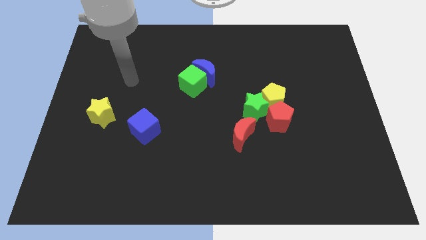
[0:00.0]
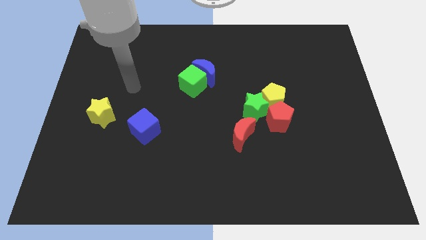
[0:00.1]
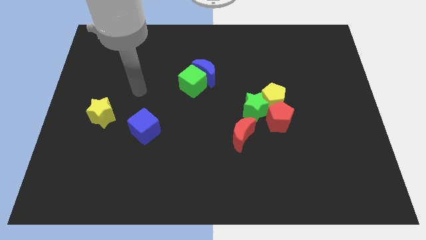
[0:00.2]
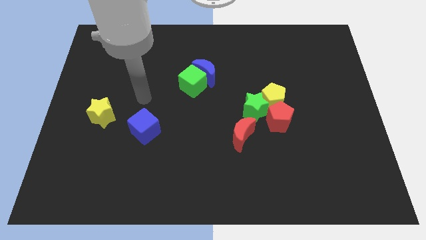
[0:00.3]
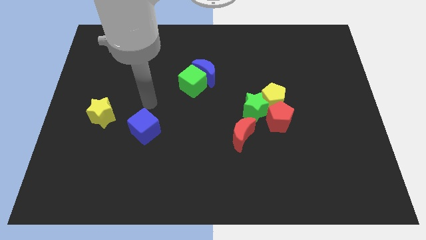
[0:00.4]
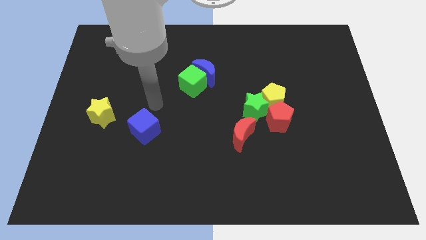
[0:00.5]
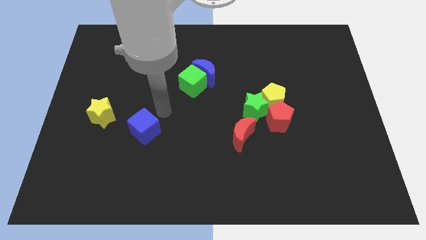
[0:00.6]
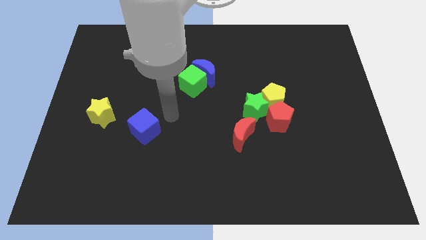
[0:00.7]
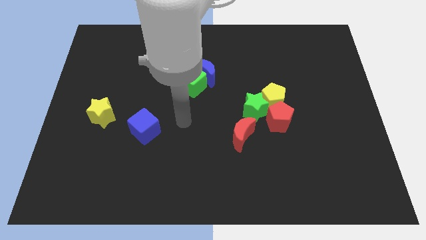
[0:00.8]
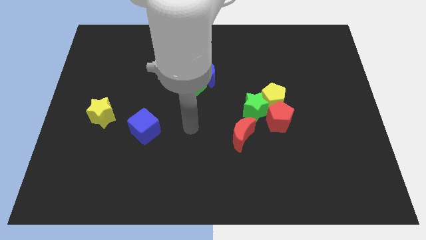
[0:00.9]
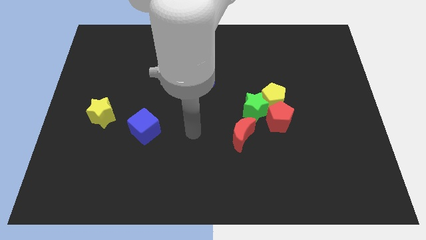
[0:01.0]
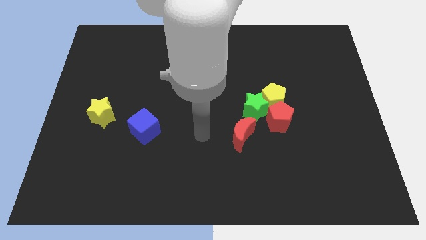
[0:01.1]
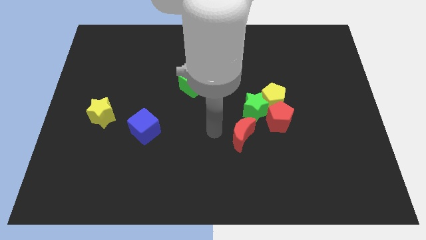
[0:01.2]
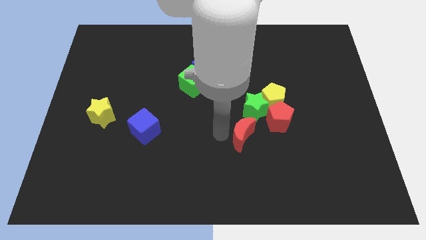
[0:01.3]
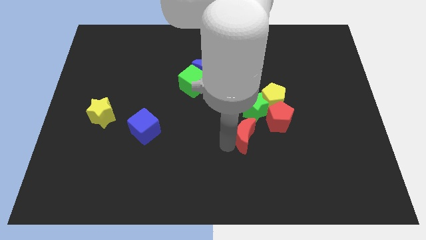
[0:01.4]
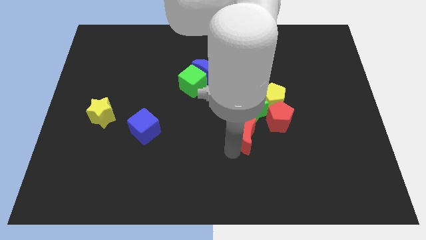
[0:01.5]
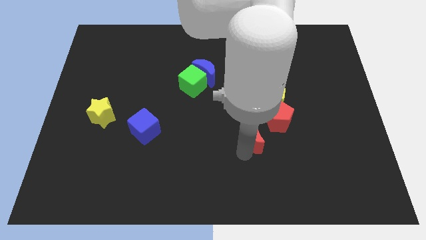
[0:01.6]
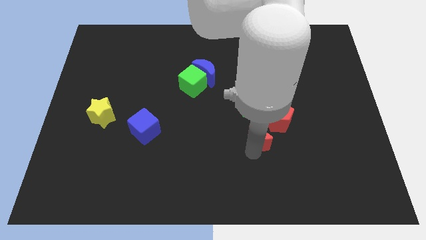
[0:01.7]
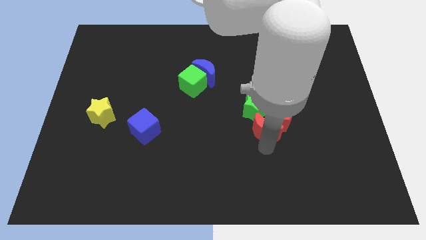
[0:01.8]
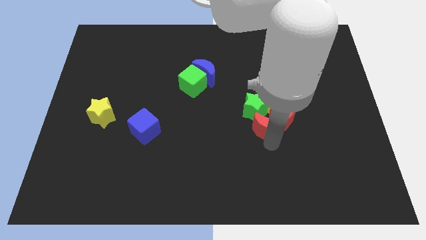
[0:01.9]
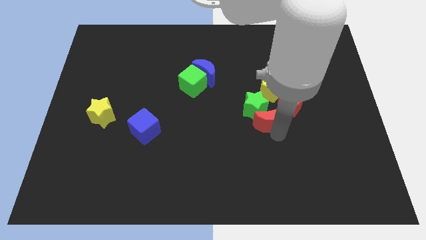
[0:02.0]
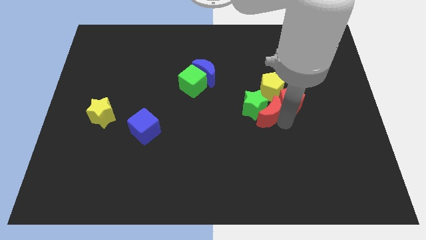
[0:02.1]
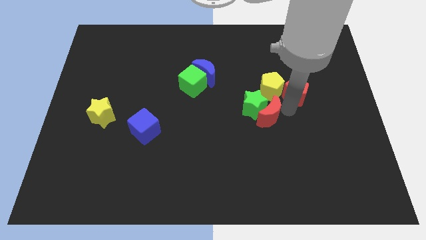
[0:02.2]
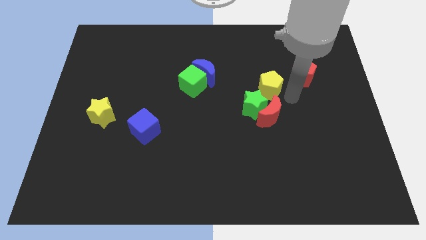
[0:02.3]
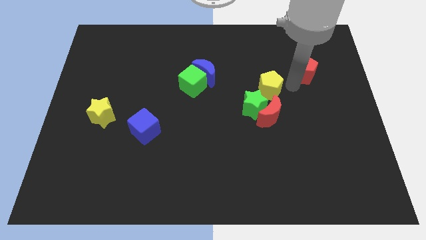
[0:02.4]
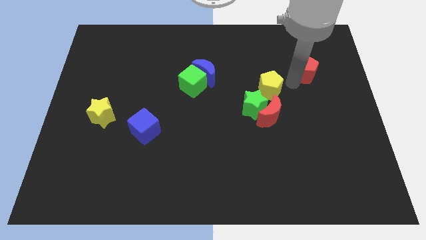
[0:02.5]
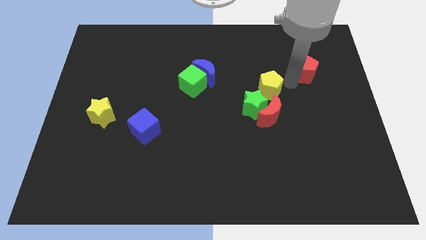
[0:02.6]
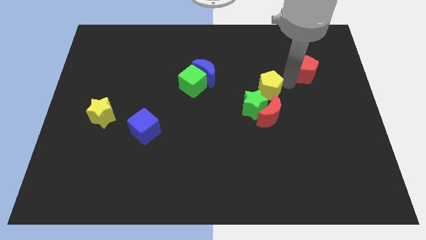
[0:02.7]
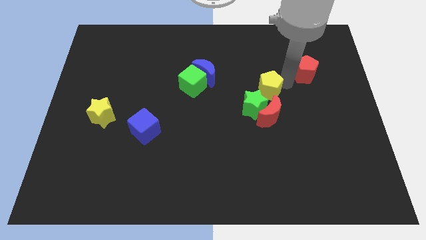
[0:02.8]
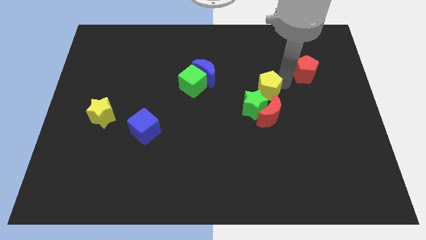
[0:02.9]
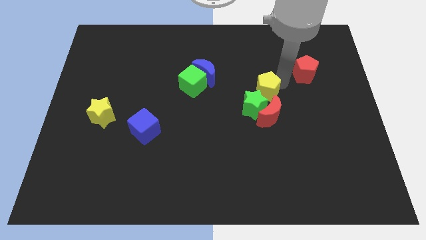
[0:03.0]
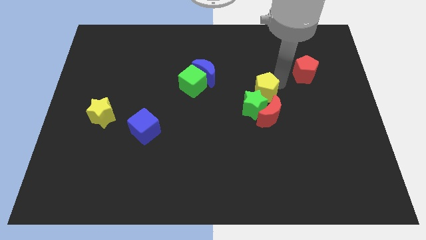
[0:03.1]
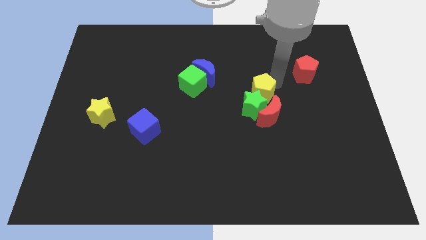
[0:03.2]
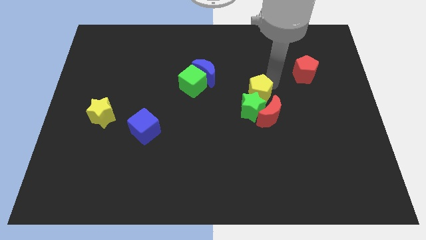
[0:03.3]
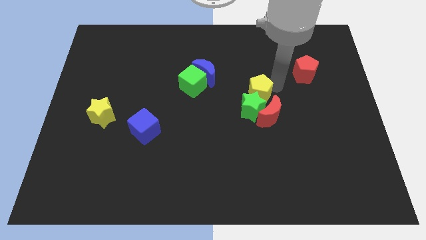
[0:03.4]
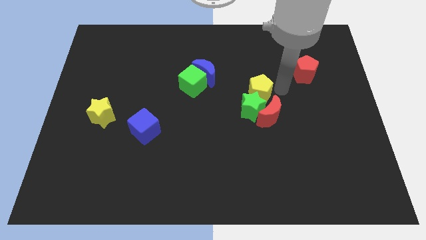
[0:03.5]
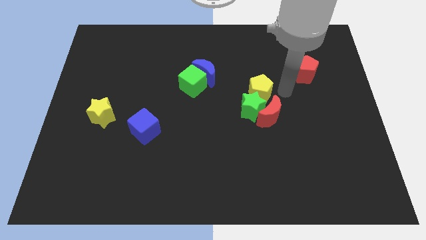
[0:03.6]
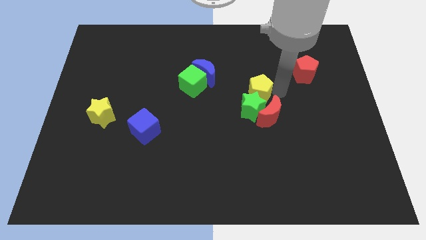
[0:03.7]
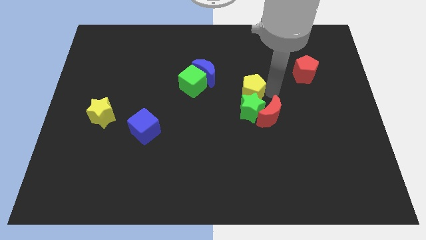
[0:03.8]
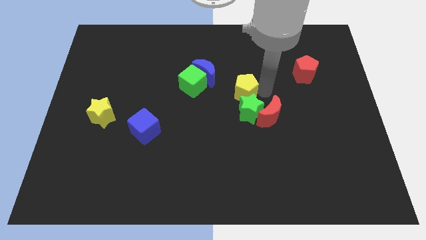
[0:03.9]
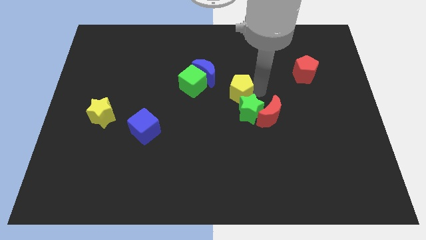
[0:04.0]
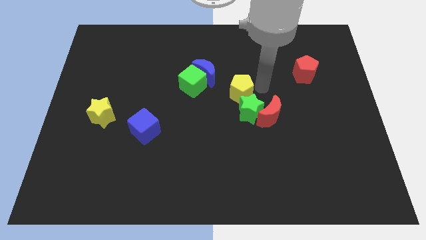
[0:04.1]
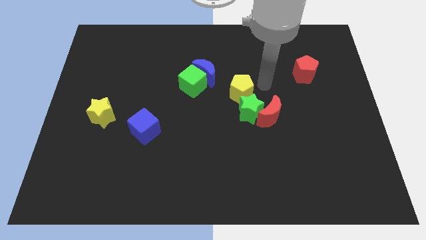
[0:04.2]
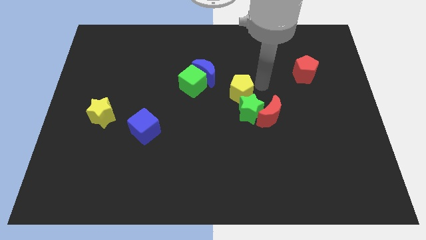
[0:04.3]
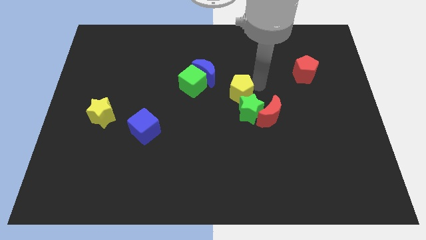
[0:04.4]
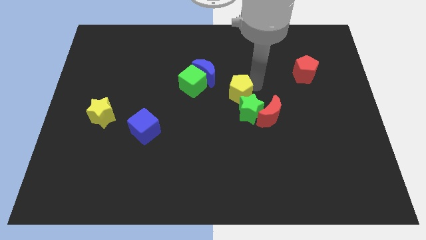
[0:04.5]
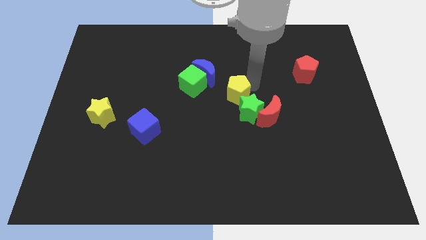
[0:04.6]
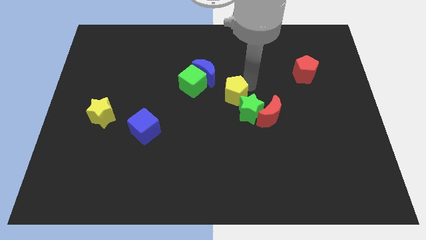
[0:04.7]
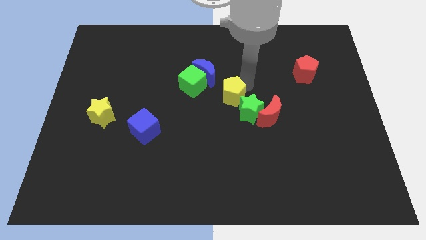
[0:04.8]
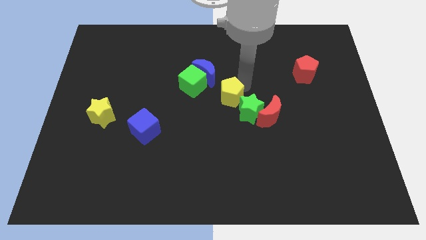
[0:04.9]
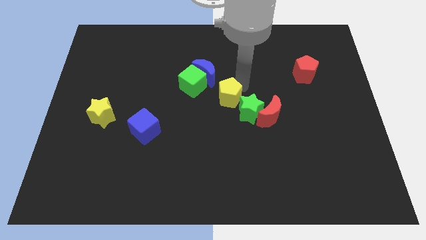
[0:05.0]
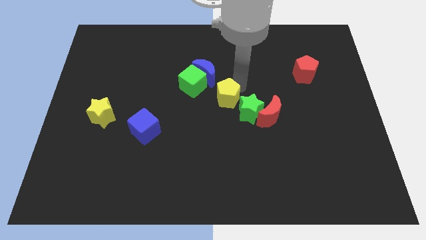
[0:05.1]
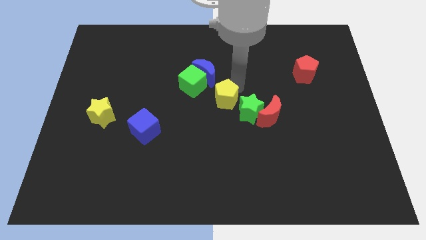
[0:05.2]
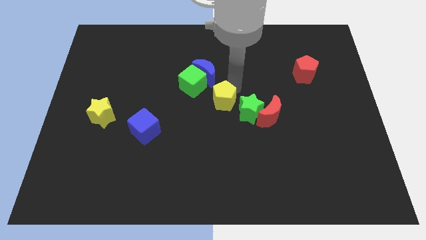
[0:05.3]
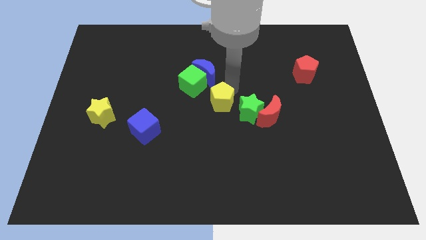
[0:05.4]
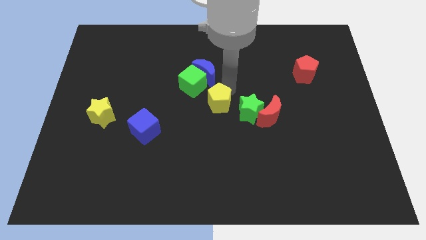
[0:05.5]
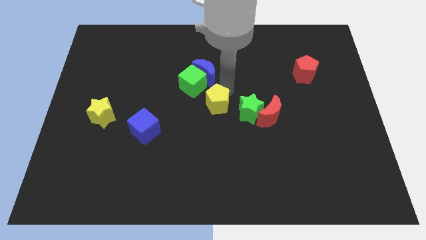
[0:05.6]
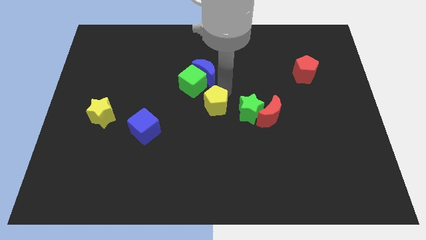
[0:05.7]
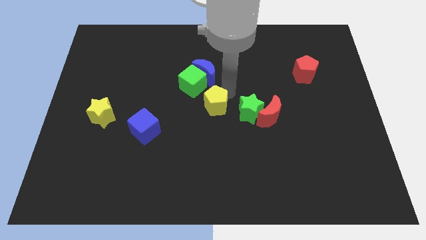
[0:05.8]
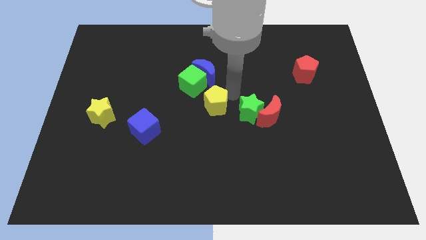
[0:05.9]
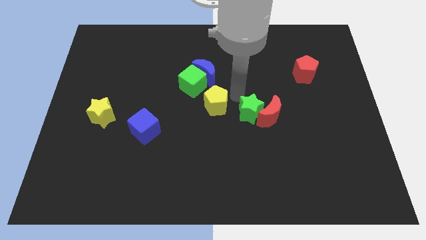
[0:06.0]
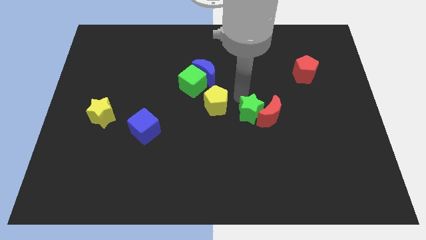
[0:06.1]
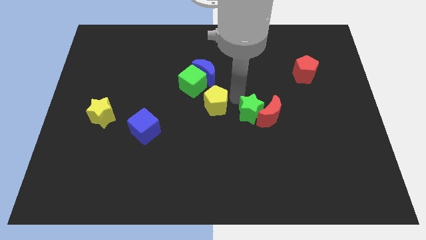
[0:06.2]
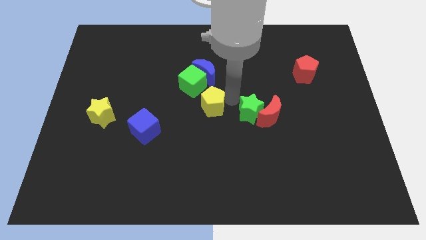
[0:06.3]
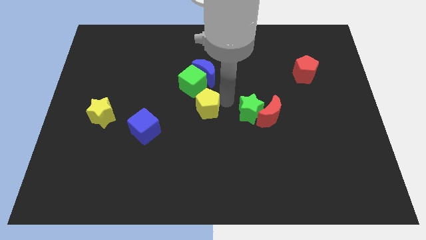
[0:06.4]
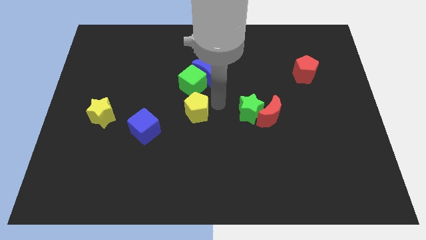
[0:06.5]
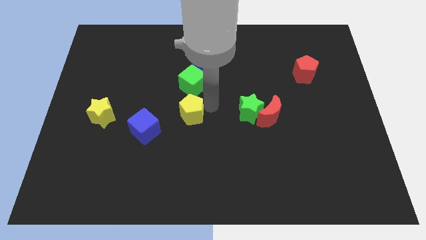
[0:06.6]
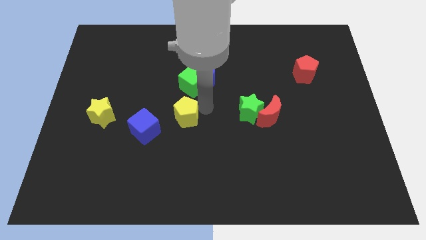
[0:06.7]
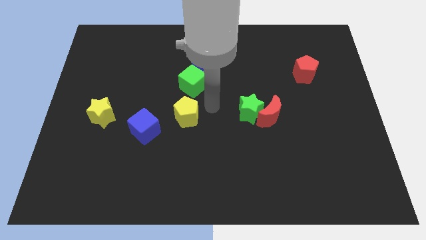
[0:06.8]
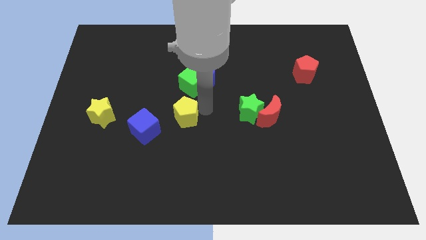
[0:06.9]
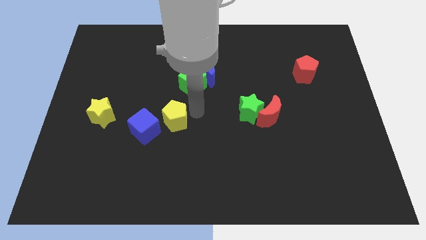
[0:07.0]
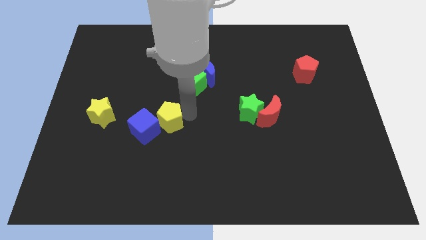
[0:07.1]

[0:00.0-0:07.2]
slide the yellow pentagon to the blue cube

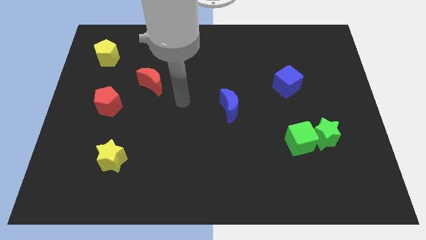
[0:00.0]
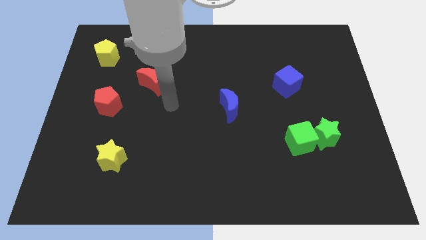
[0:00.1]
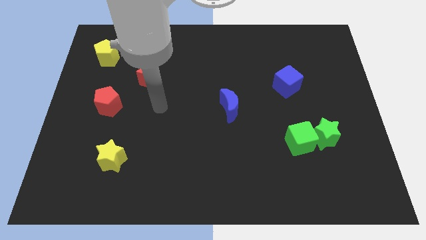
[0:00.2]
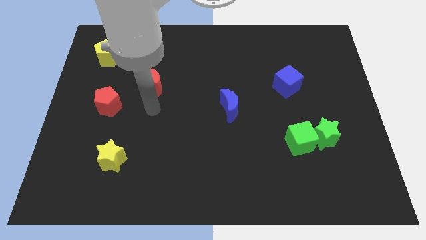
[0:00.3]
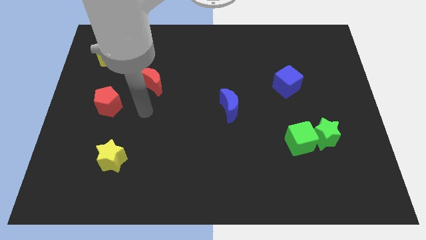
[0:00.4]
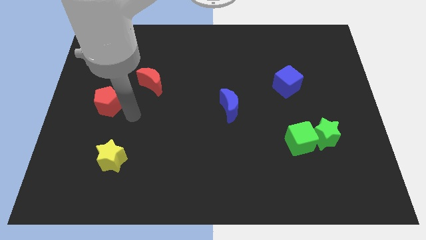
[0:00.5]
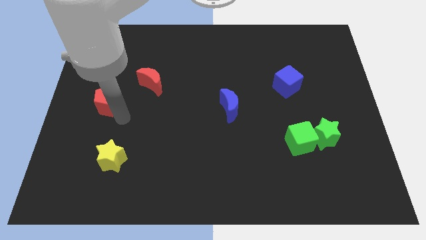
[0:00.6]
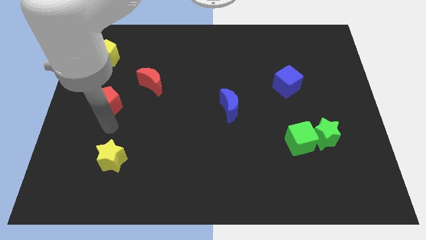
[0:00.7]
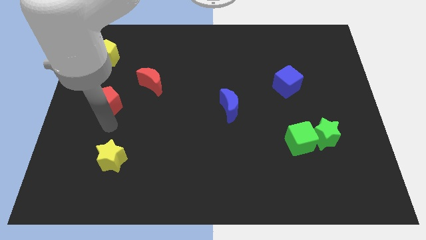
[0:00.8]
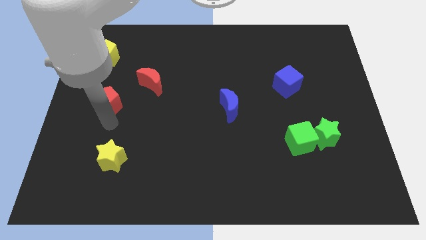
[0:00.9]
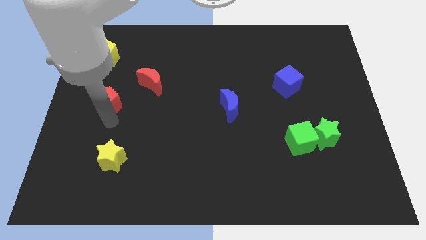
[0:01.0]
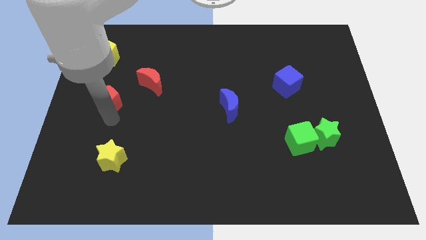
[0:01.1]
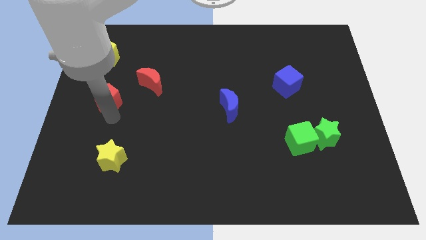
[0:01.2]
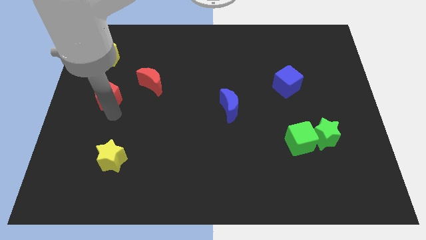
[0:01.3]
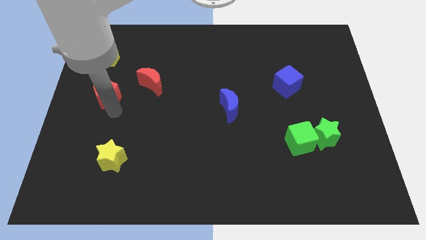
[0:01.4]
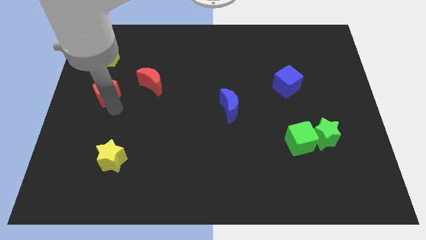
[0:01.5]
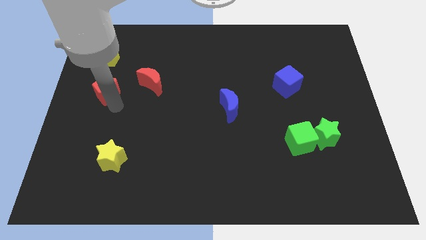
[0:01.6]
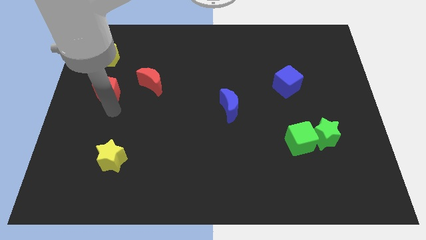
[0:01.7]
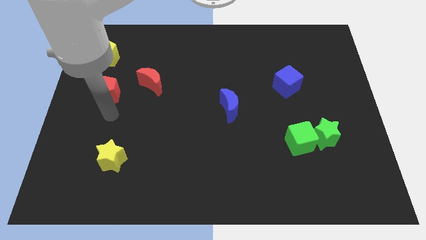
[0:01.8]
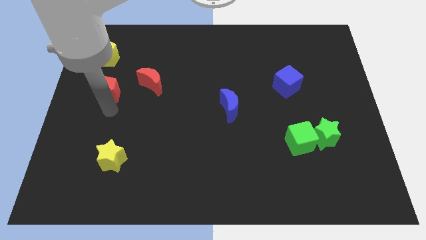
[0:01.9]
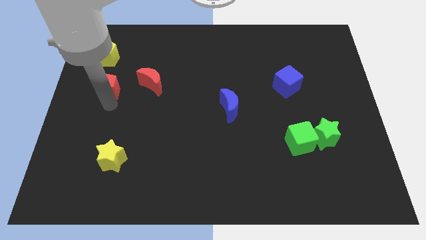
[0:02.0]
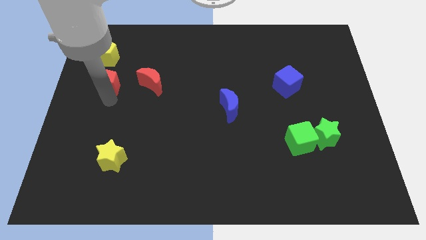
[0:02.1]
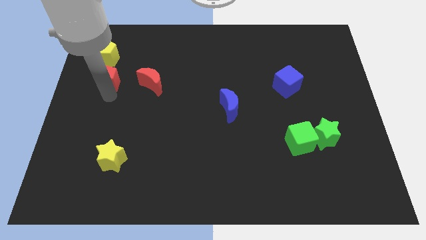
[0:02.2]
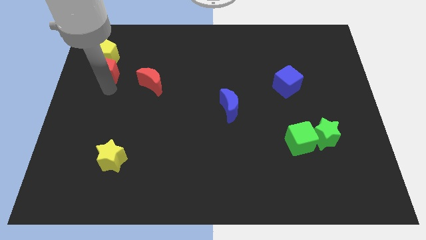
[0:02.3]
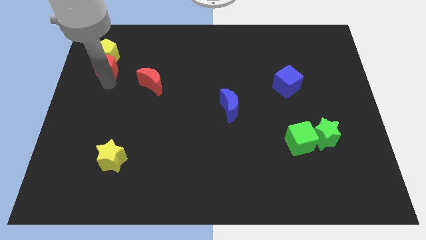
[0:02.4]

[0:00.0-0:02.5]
move the red pentagon to the yellow pentagon
